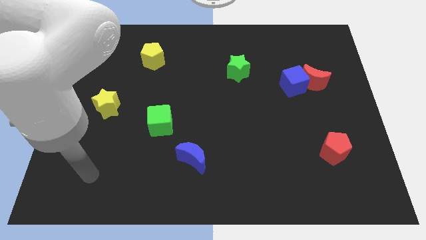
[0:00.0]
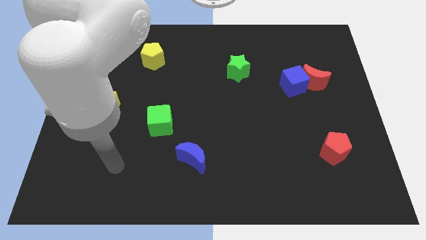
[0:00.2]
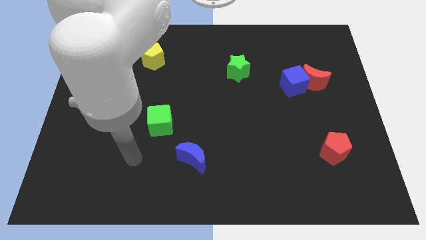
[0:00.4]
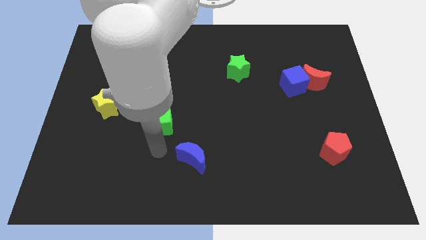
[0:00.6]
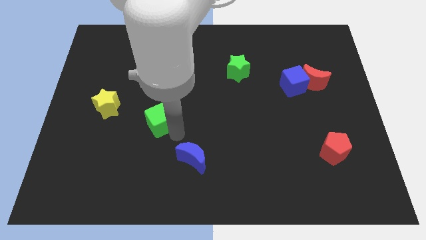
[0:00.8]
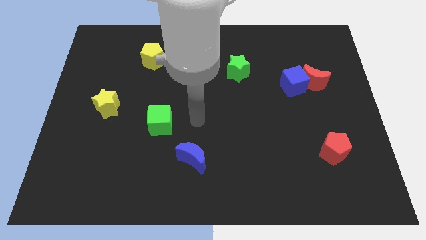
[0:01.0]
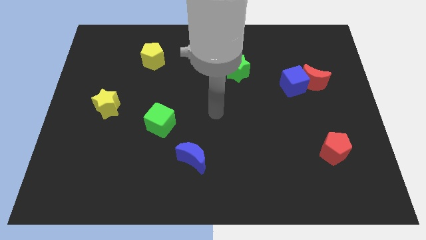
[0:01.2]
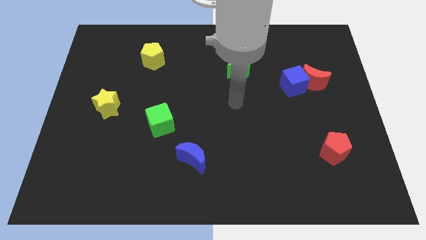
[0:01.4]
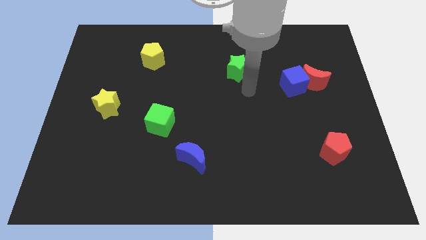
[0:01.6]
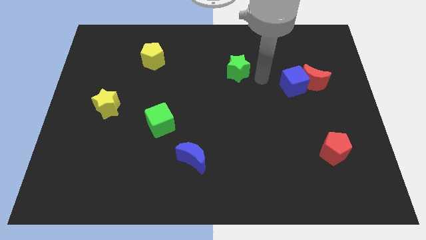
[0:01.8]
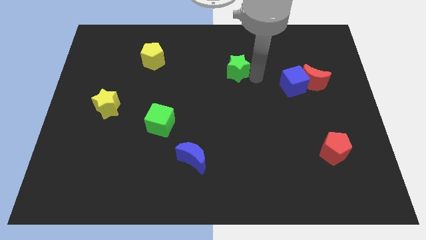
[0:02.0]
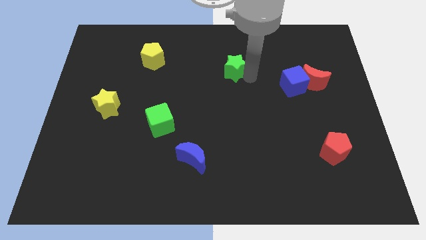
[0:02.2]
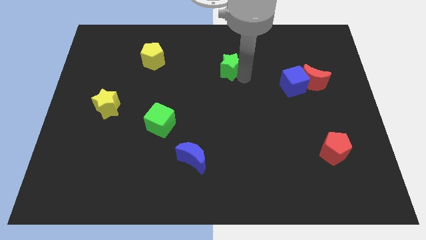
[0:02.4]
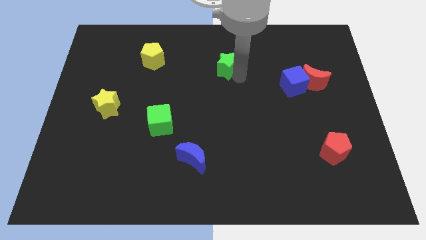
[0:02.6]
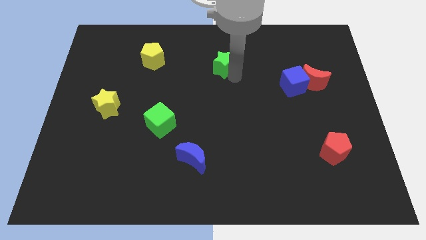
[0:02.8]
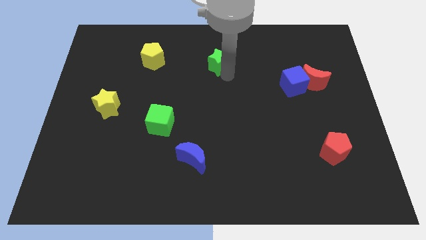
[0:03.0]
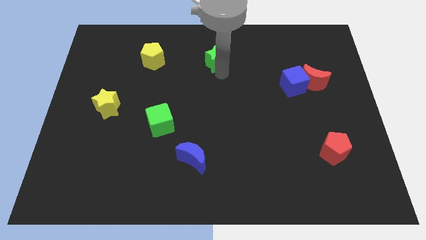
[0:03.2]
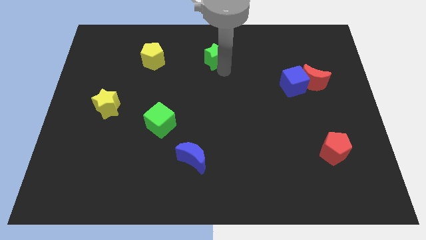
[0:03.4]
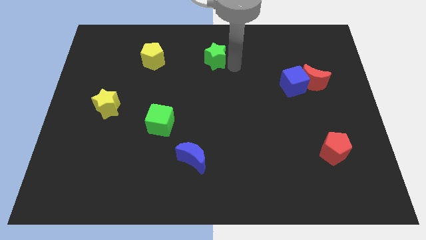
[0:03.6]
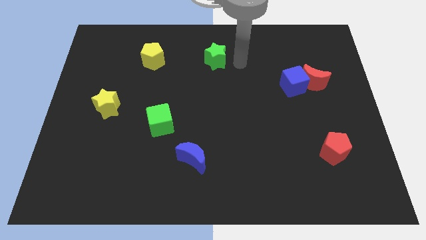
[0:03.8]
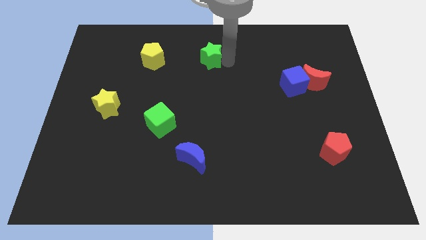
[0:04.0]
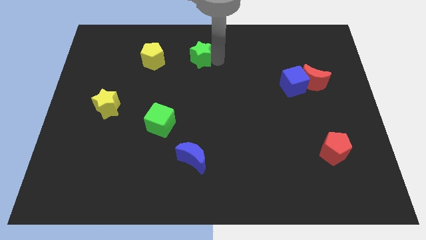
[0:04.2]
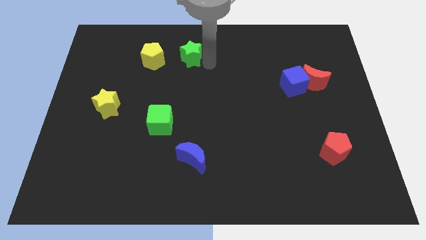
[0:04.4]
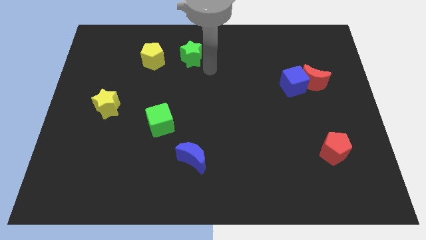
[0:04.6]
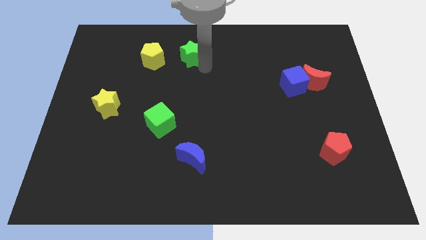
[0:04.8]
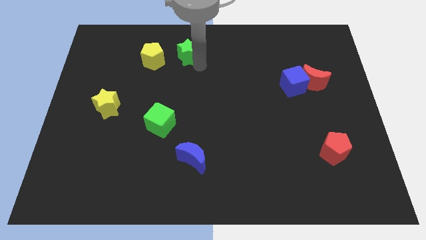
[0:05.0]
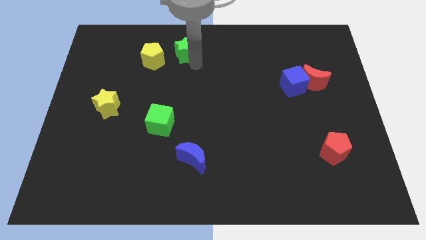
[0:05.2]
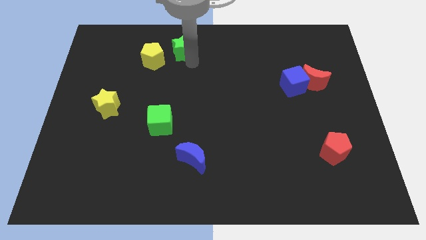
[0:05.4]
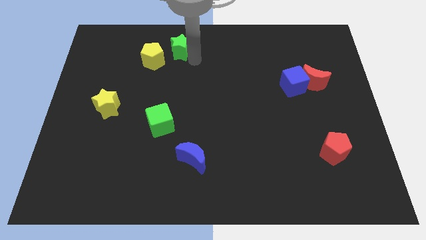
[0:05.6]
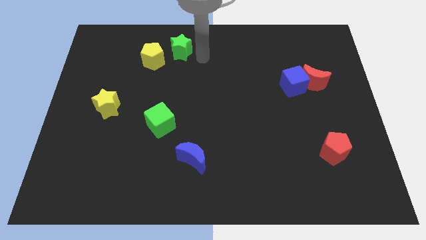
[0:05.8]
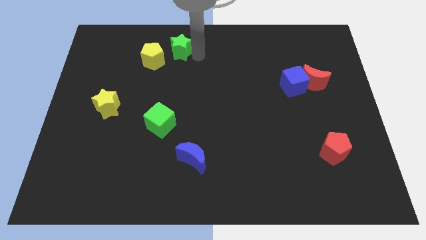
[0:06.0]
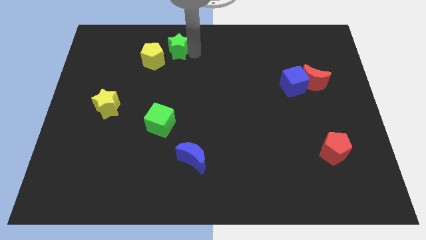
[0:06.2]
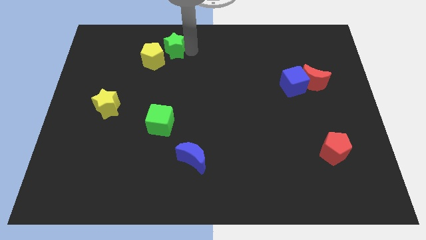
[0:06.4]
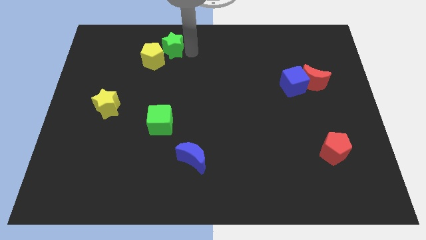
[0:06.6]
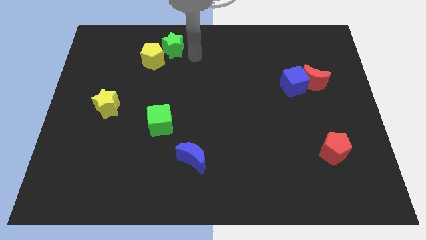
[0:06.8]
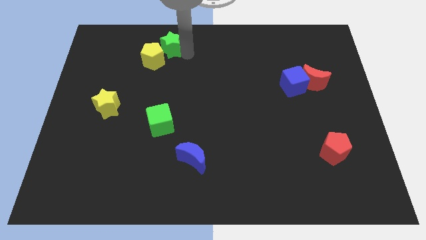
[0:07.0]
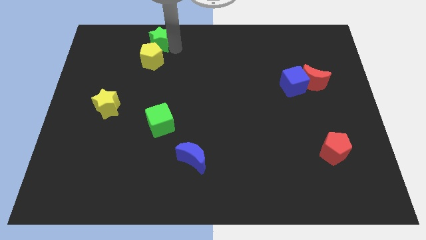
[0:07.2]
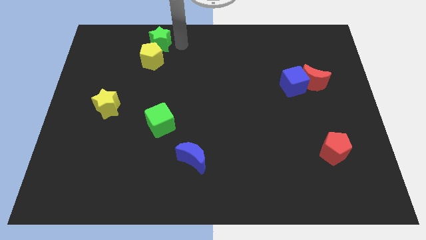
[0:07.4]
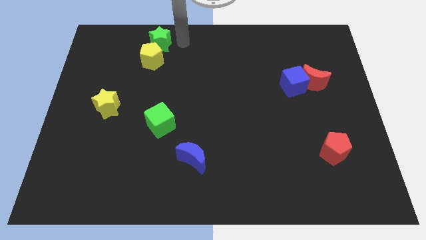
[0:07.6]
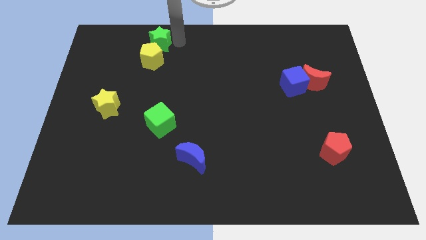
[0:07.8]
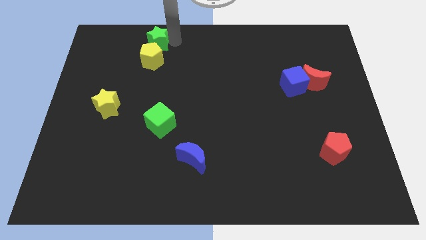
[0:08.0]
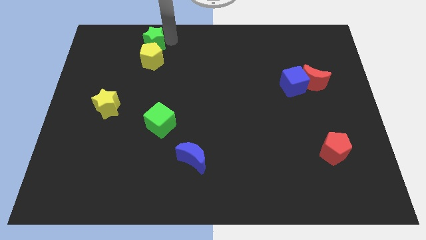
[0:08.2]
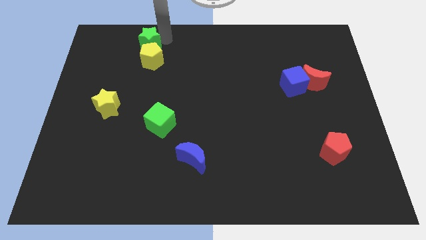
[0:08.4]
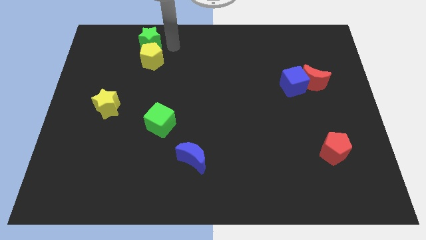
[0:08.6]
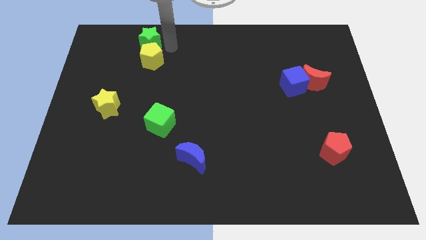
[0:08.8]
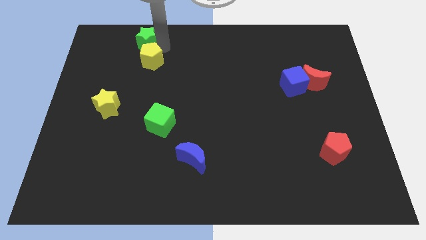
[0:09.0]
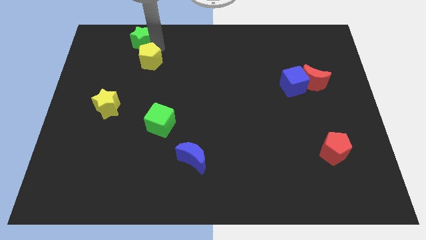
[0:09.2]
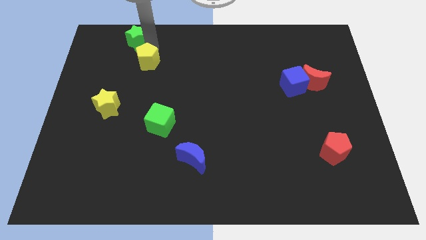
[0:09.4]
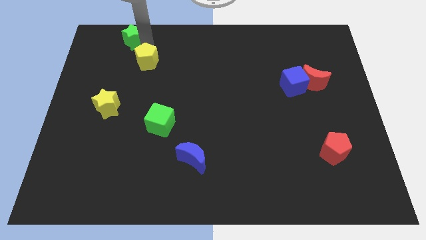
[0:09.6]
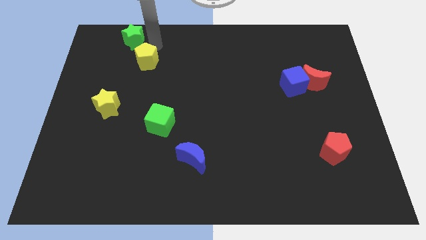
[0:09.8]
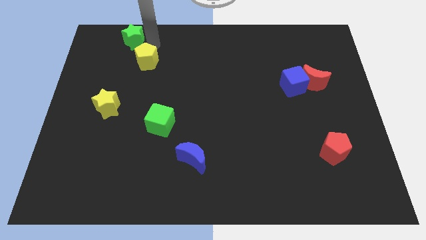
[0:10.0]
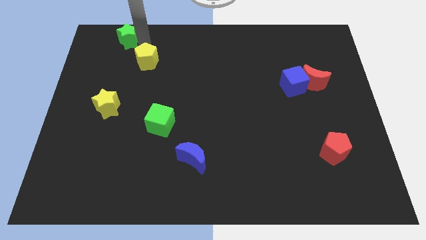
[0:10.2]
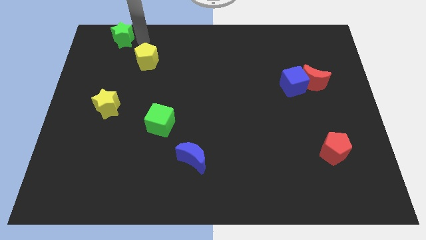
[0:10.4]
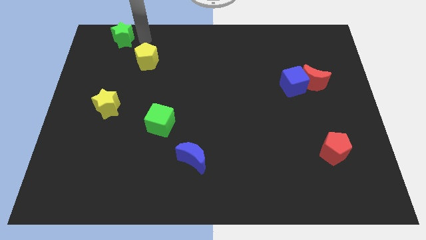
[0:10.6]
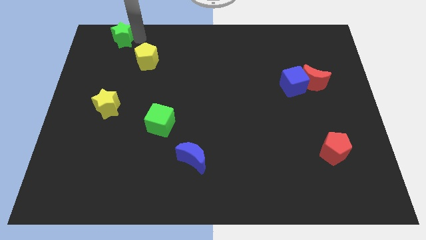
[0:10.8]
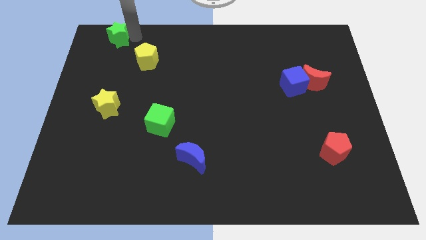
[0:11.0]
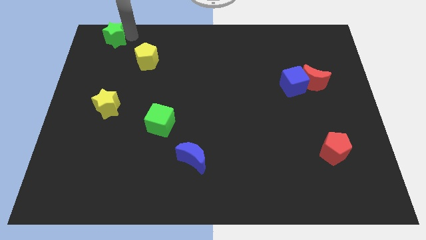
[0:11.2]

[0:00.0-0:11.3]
push the green star to the top left corner
